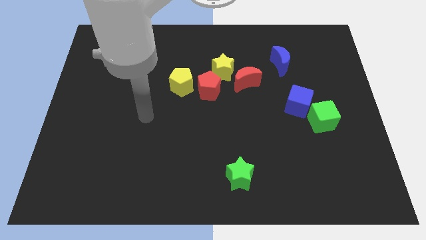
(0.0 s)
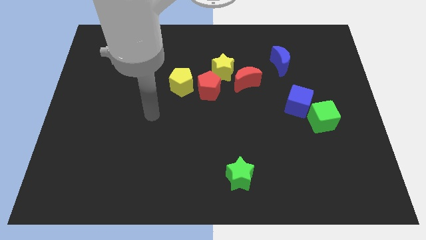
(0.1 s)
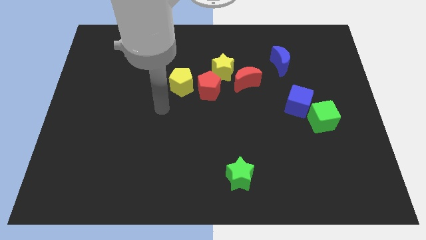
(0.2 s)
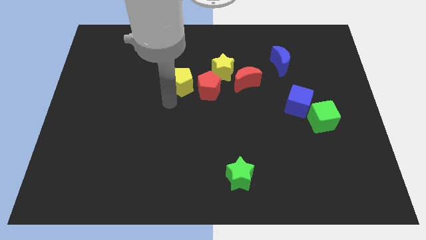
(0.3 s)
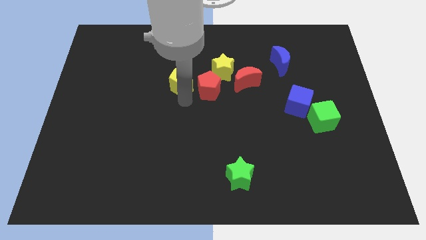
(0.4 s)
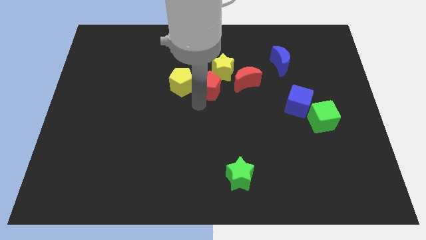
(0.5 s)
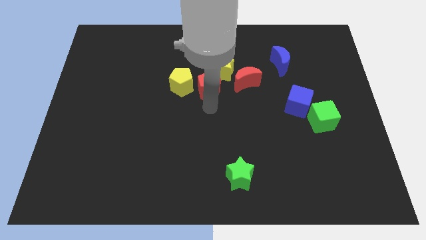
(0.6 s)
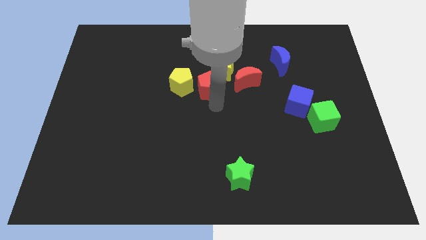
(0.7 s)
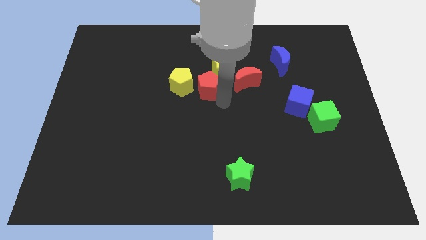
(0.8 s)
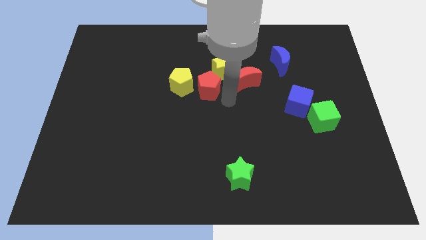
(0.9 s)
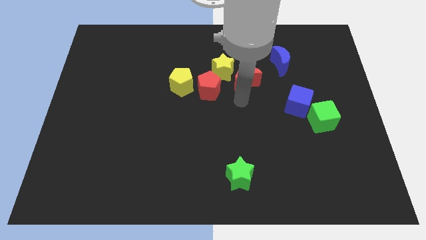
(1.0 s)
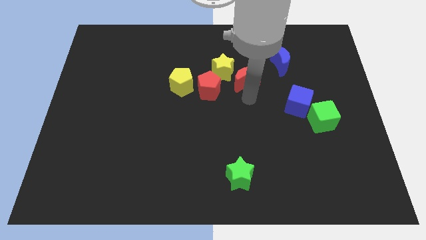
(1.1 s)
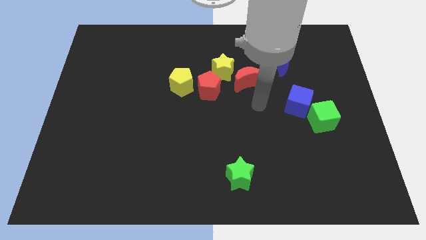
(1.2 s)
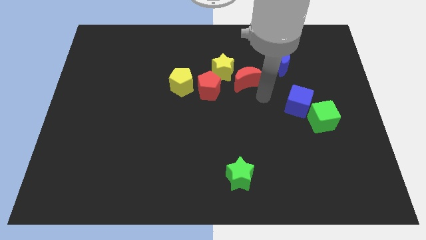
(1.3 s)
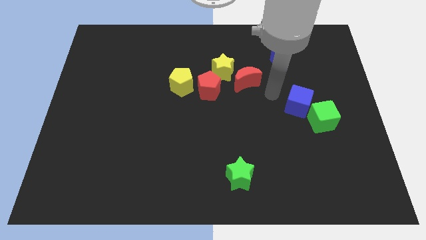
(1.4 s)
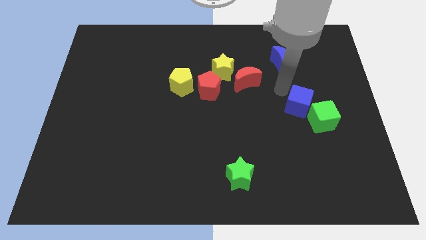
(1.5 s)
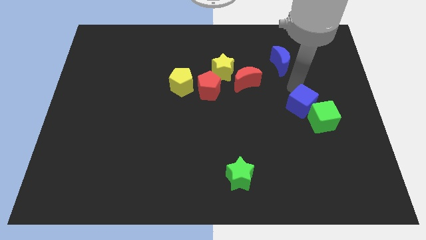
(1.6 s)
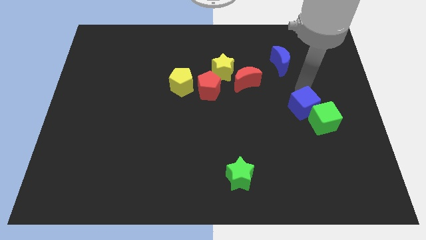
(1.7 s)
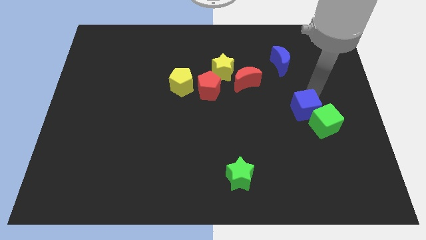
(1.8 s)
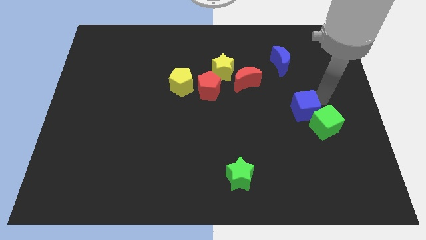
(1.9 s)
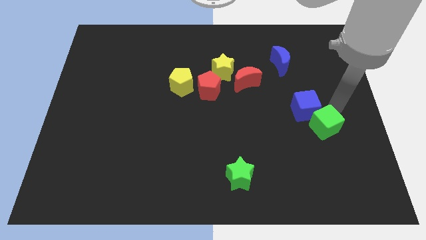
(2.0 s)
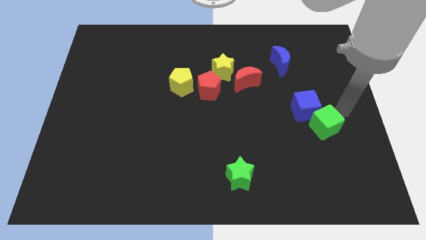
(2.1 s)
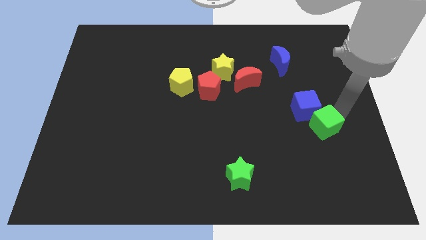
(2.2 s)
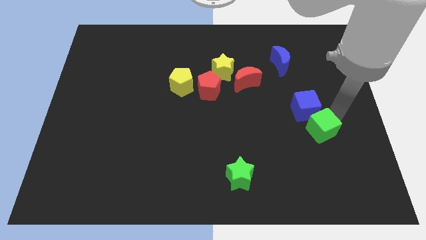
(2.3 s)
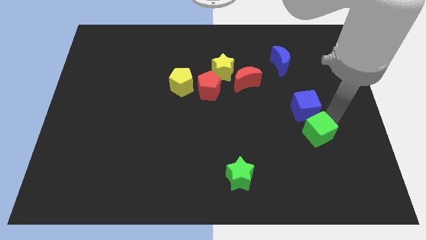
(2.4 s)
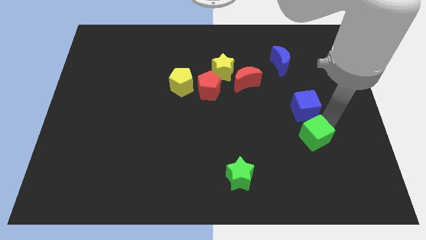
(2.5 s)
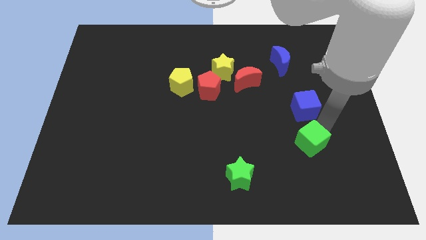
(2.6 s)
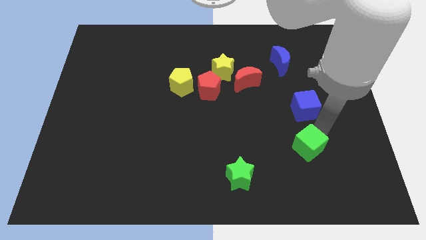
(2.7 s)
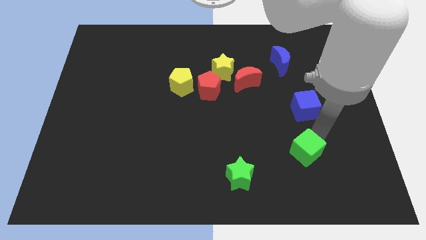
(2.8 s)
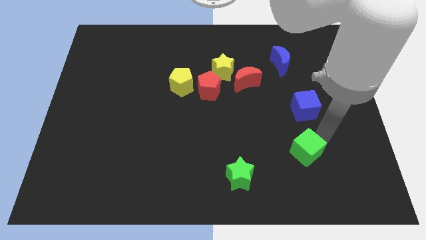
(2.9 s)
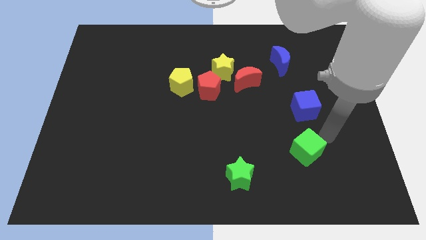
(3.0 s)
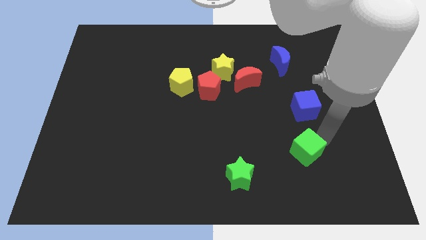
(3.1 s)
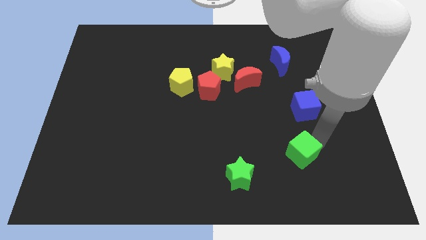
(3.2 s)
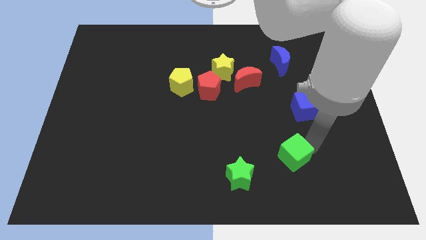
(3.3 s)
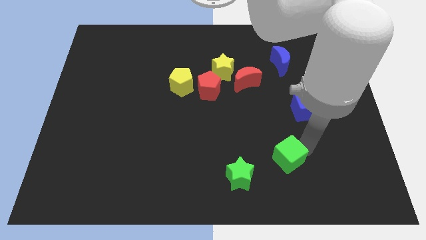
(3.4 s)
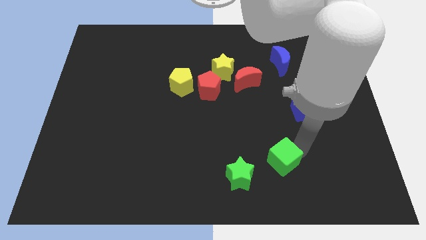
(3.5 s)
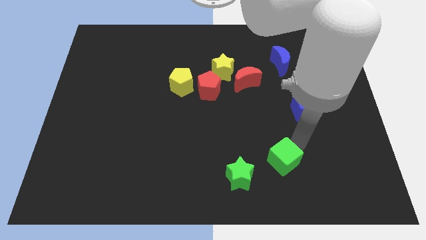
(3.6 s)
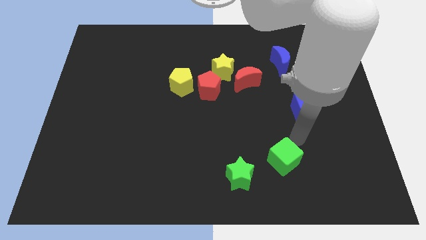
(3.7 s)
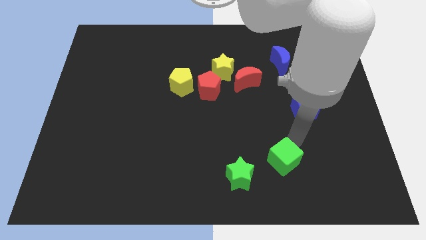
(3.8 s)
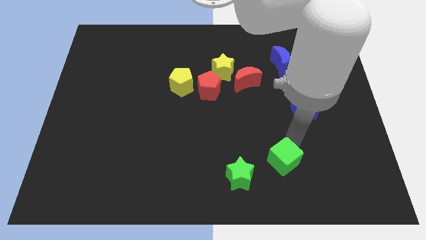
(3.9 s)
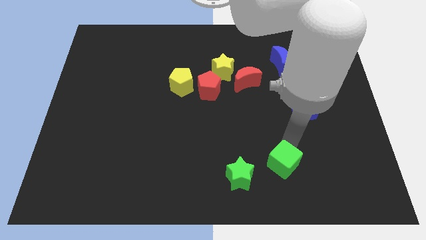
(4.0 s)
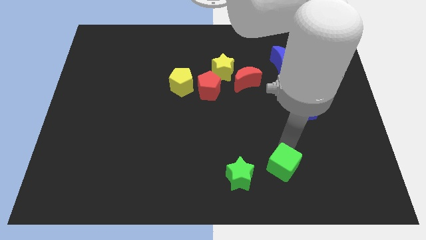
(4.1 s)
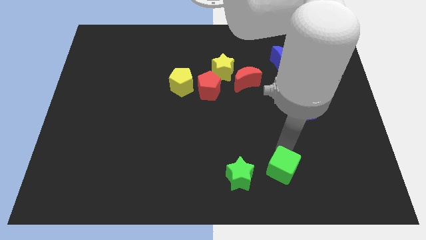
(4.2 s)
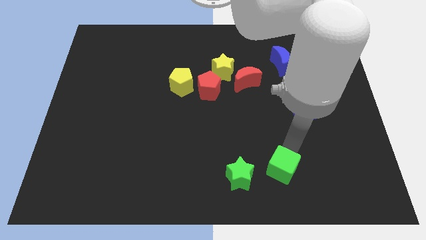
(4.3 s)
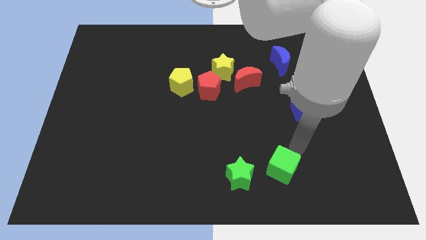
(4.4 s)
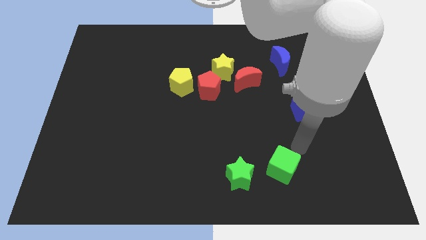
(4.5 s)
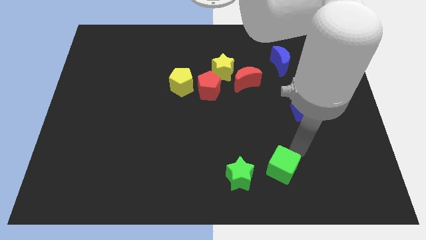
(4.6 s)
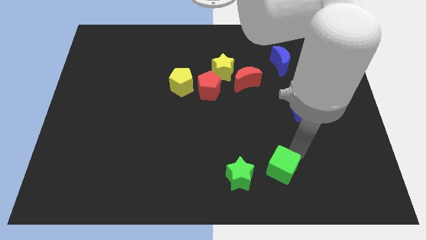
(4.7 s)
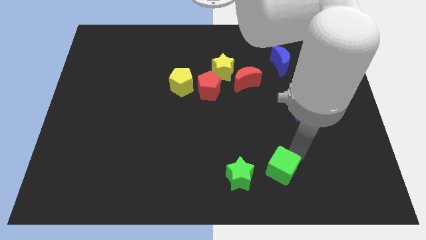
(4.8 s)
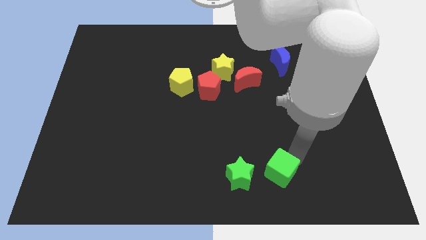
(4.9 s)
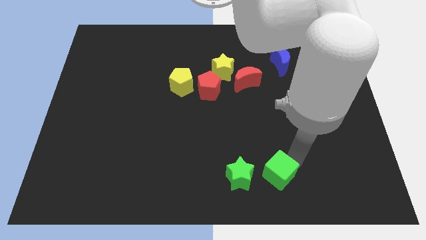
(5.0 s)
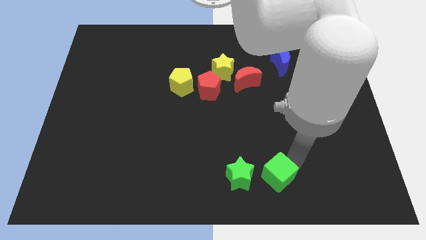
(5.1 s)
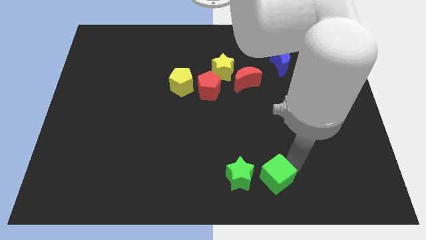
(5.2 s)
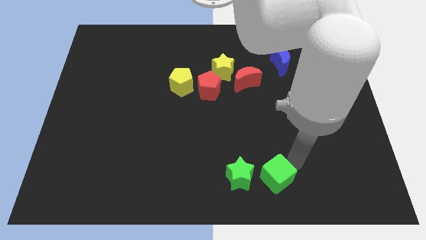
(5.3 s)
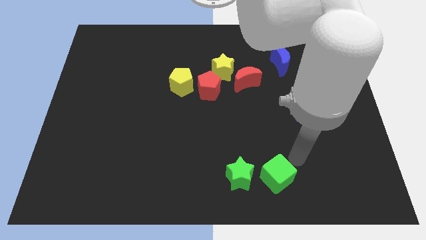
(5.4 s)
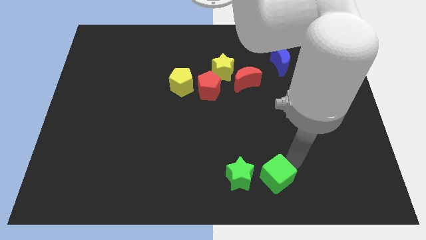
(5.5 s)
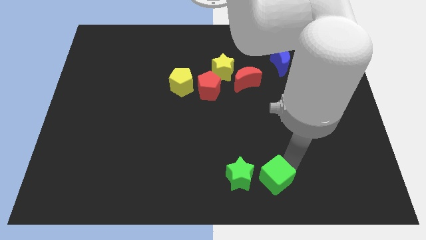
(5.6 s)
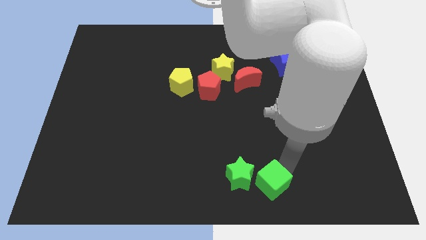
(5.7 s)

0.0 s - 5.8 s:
put the green cube to the bottom
